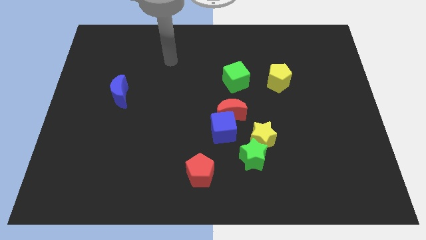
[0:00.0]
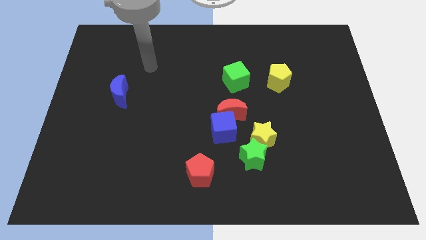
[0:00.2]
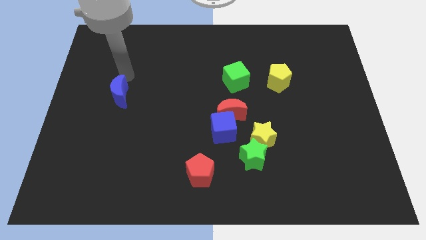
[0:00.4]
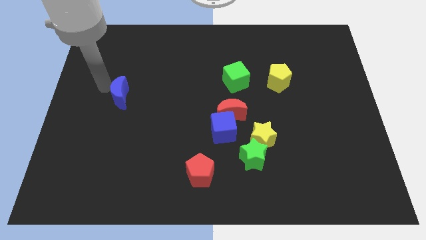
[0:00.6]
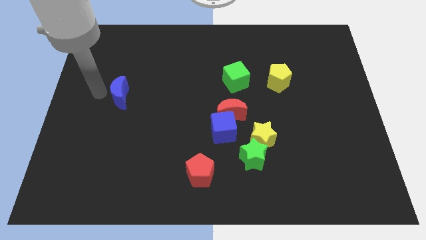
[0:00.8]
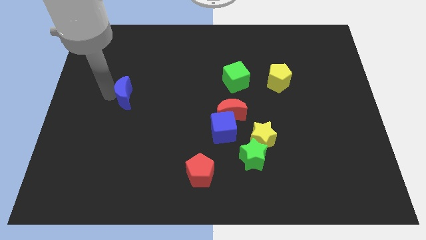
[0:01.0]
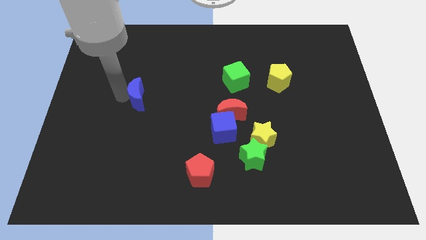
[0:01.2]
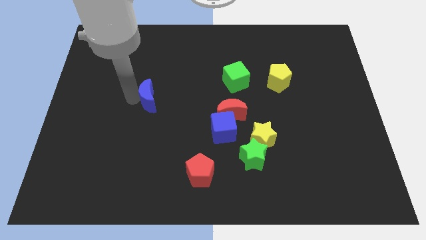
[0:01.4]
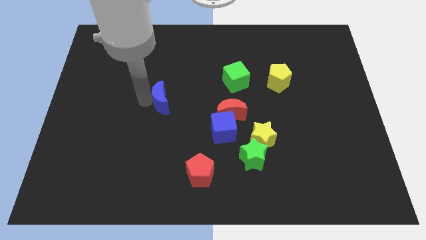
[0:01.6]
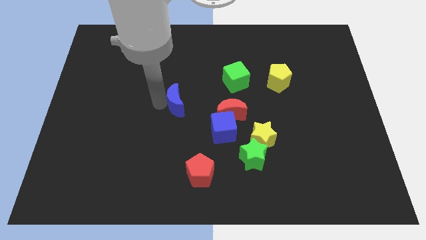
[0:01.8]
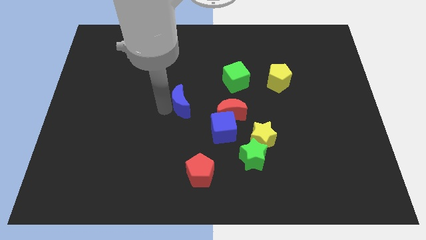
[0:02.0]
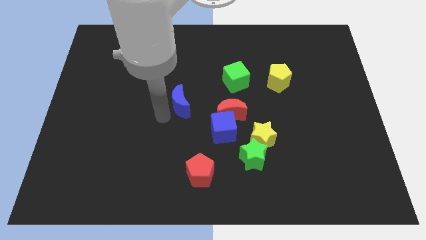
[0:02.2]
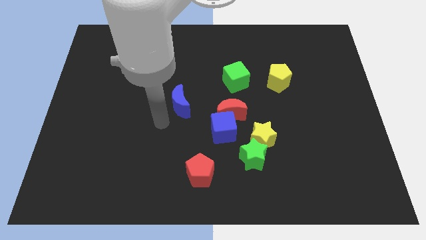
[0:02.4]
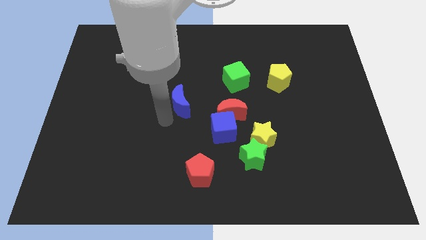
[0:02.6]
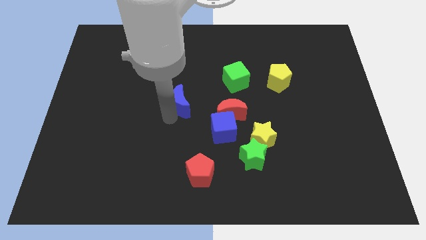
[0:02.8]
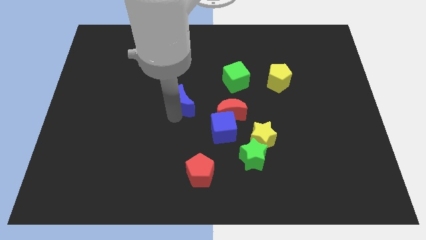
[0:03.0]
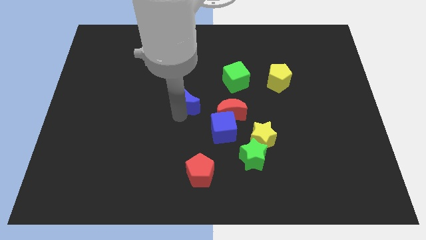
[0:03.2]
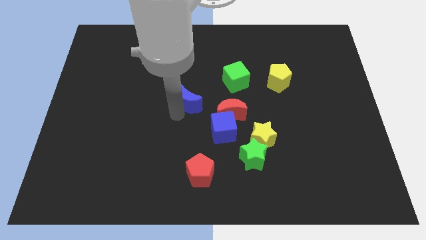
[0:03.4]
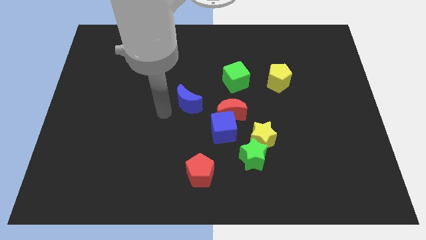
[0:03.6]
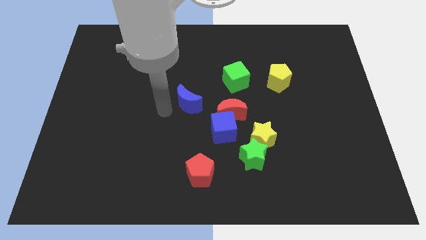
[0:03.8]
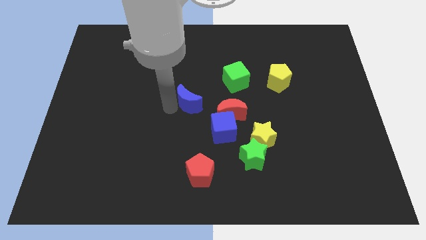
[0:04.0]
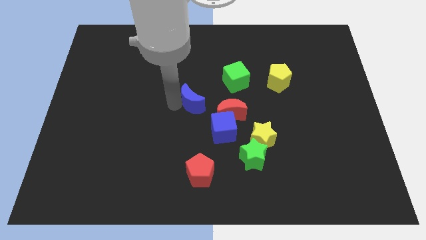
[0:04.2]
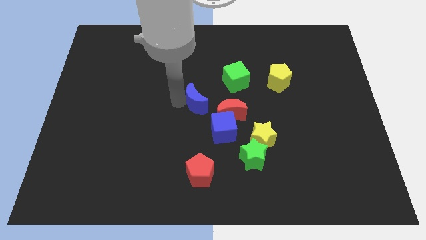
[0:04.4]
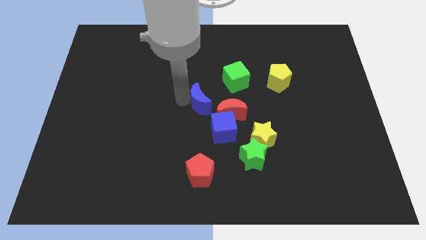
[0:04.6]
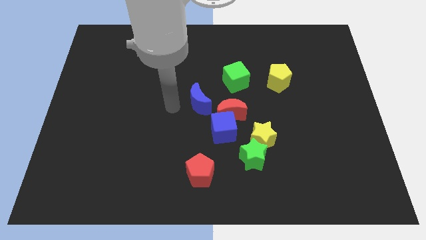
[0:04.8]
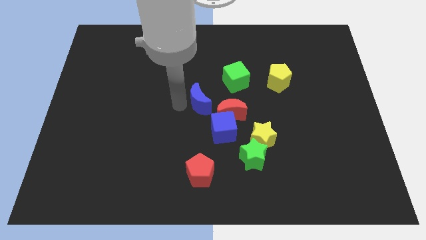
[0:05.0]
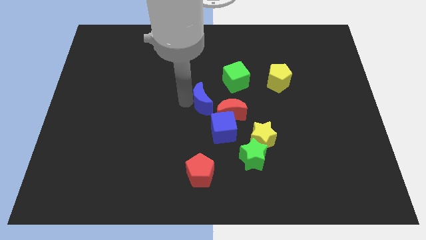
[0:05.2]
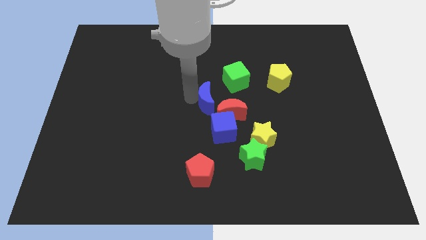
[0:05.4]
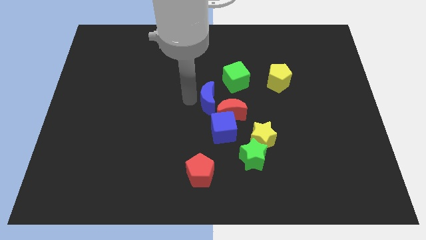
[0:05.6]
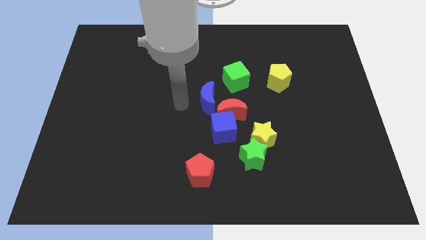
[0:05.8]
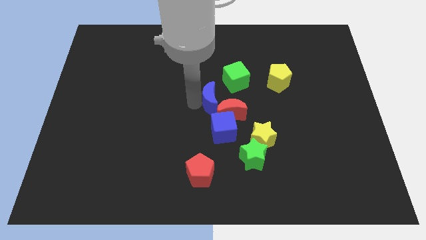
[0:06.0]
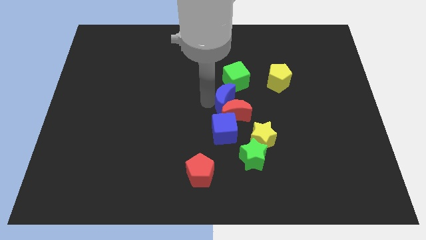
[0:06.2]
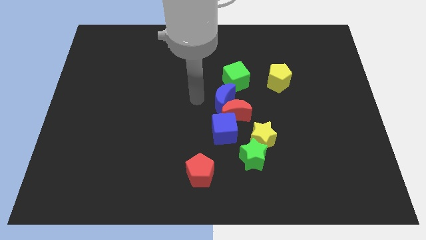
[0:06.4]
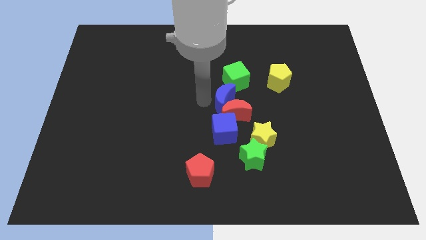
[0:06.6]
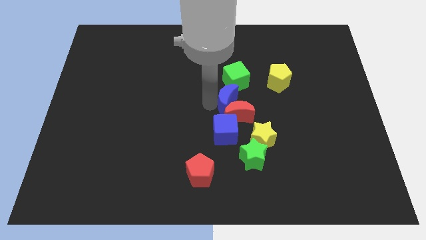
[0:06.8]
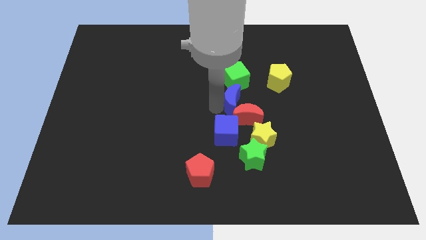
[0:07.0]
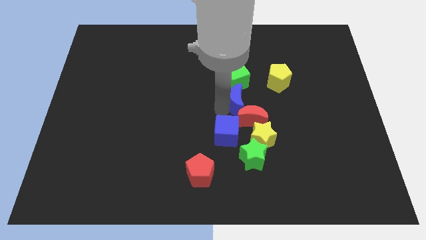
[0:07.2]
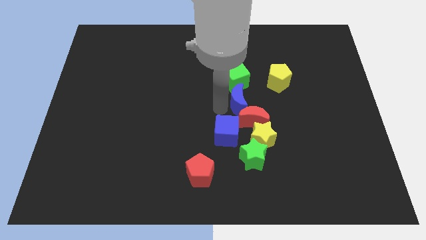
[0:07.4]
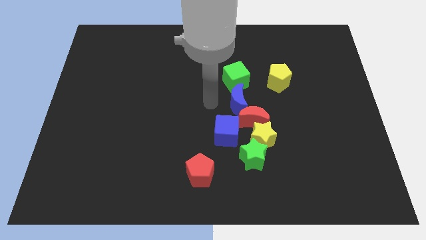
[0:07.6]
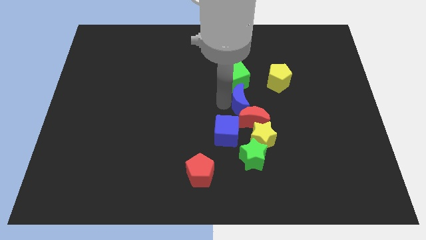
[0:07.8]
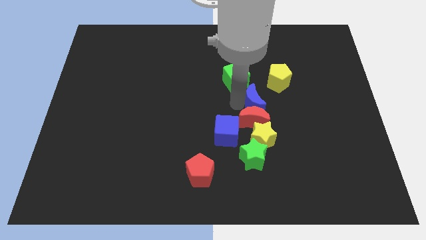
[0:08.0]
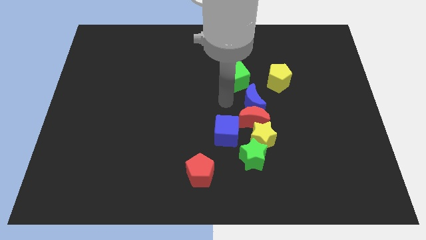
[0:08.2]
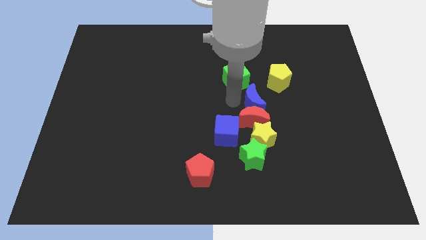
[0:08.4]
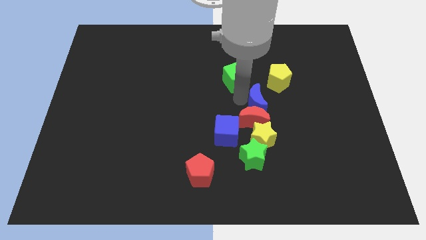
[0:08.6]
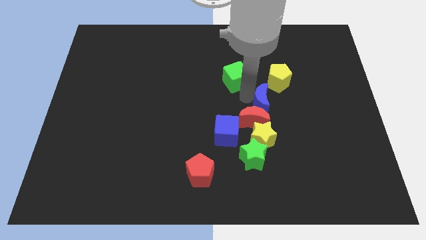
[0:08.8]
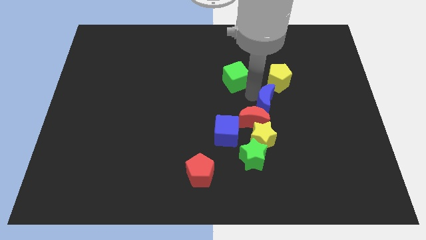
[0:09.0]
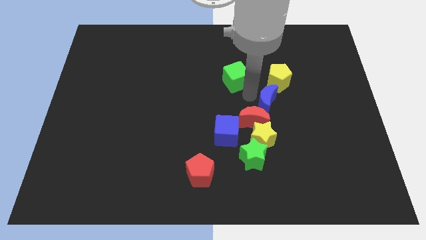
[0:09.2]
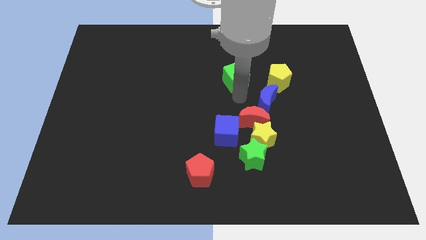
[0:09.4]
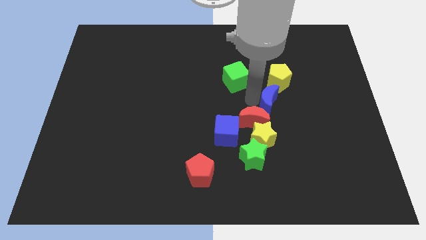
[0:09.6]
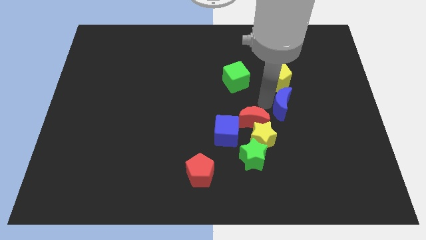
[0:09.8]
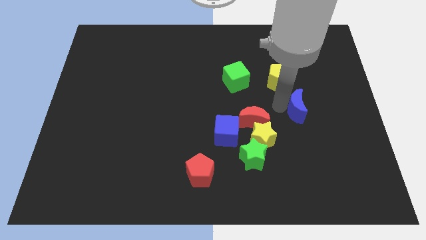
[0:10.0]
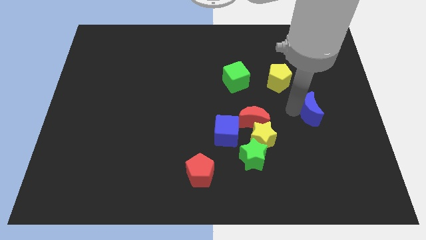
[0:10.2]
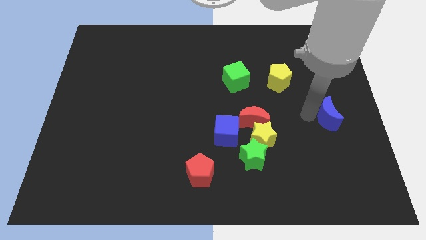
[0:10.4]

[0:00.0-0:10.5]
put the blue moon to the center right

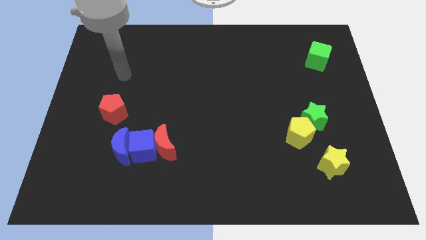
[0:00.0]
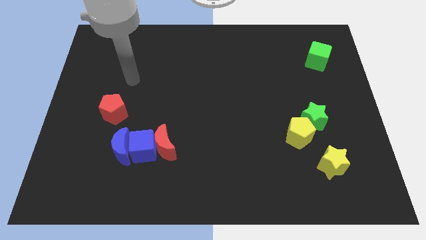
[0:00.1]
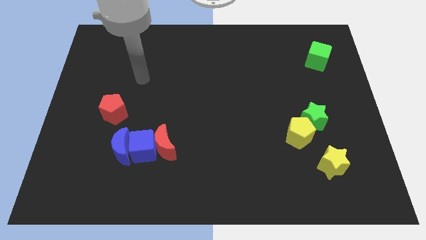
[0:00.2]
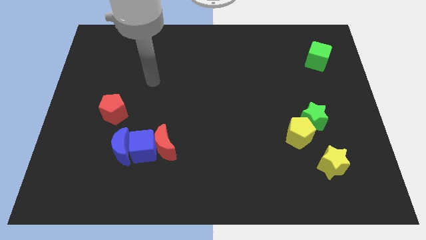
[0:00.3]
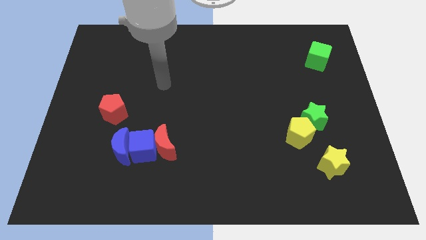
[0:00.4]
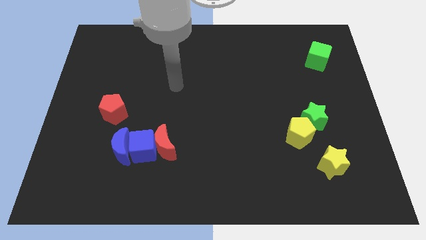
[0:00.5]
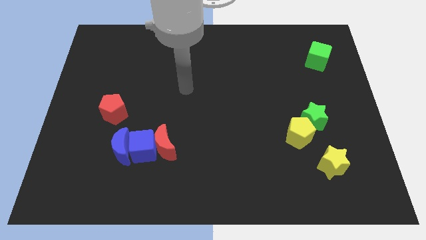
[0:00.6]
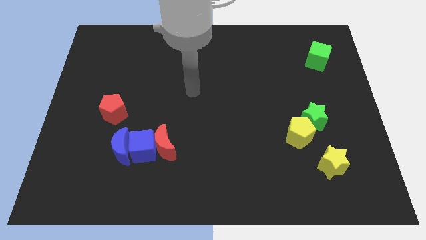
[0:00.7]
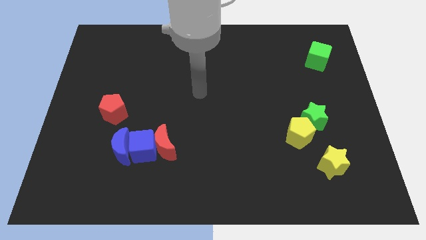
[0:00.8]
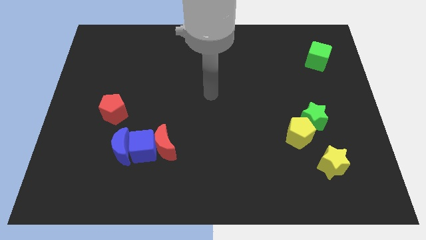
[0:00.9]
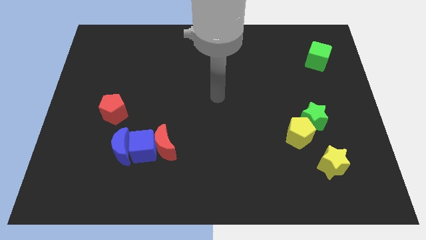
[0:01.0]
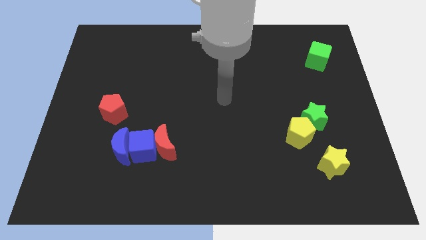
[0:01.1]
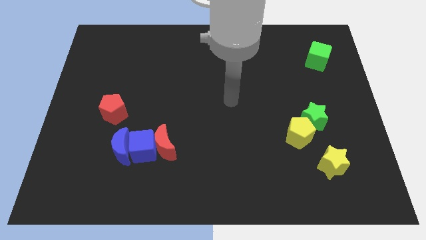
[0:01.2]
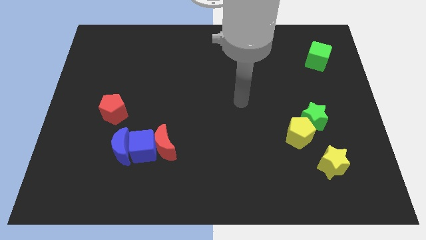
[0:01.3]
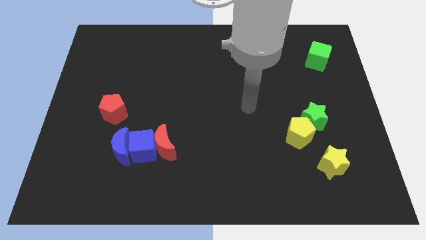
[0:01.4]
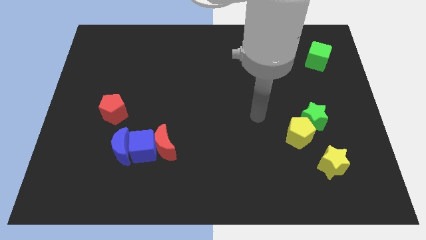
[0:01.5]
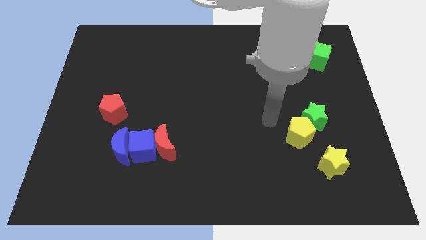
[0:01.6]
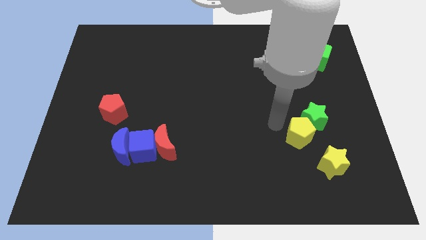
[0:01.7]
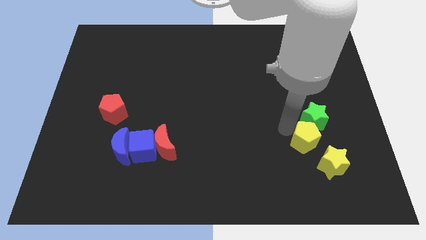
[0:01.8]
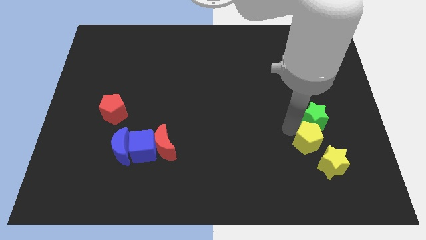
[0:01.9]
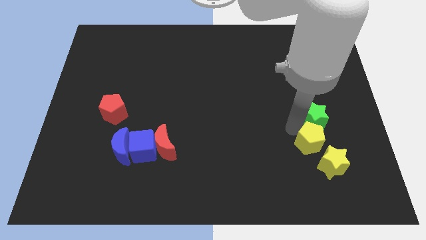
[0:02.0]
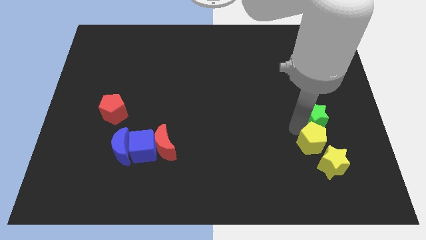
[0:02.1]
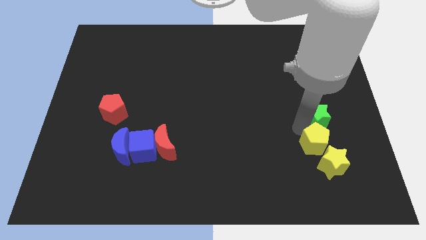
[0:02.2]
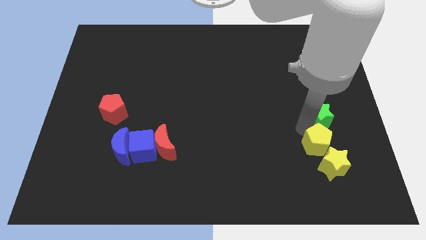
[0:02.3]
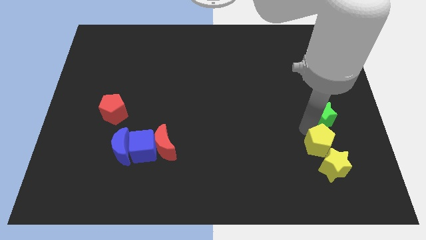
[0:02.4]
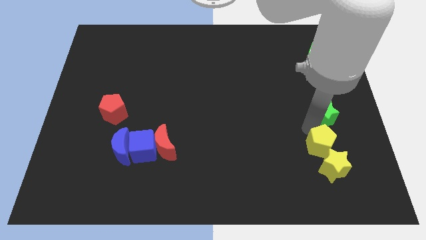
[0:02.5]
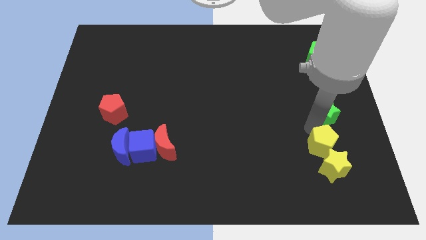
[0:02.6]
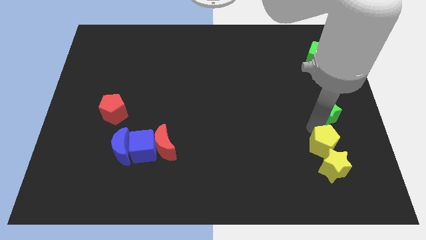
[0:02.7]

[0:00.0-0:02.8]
put the green star to the center right
